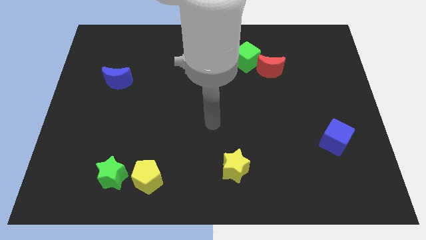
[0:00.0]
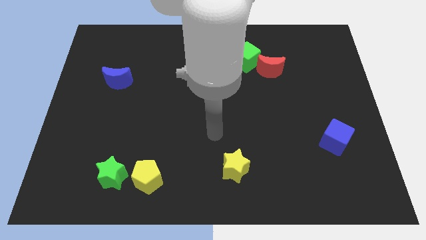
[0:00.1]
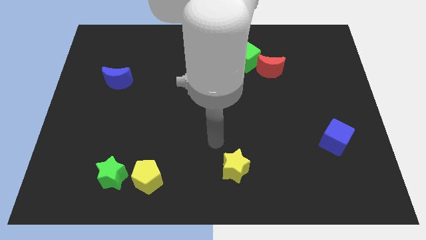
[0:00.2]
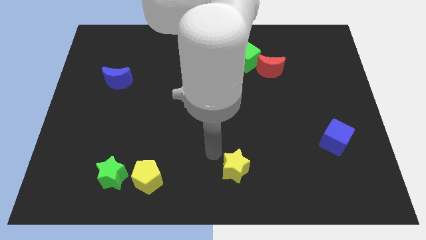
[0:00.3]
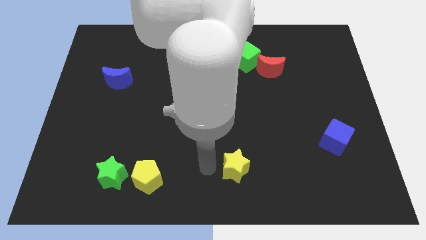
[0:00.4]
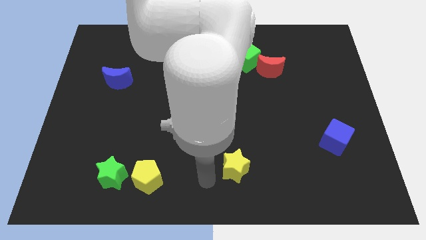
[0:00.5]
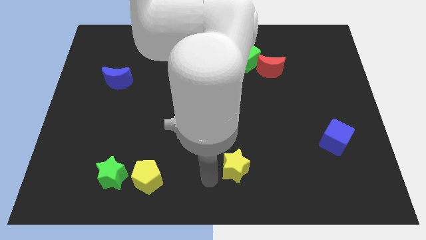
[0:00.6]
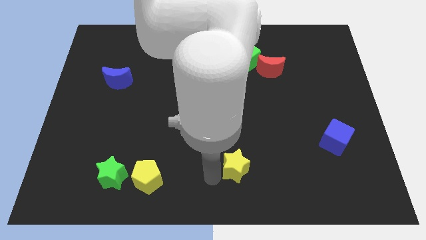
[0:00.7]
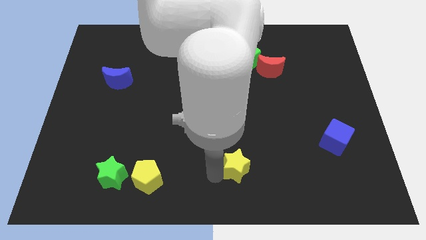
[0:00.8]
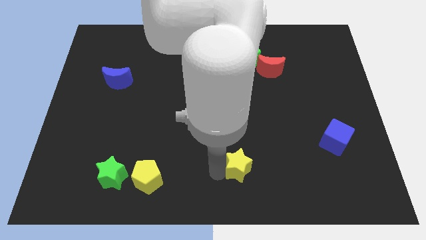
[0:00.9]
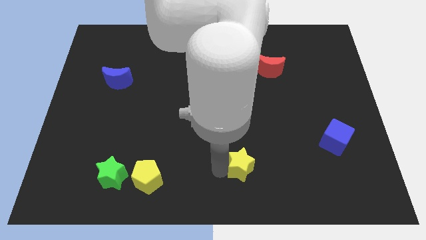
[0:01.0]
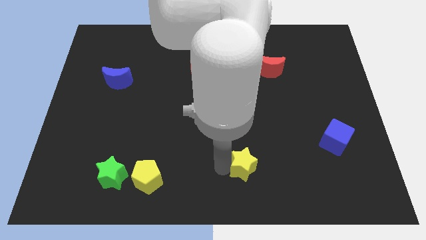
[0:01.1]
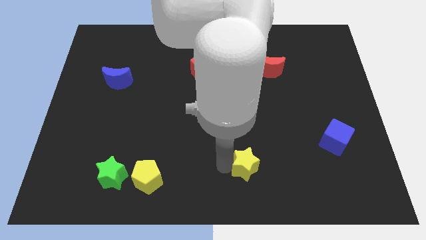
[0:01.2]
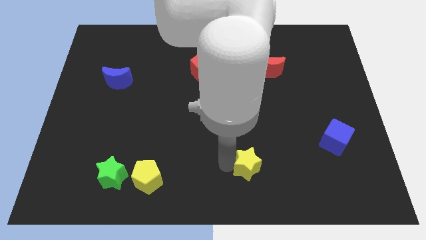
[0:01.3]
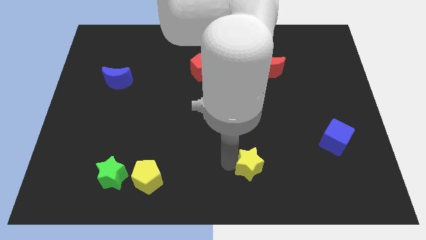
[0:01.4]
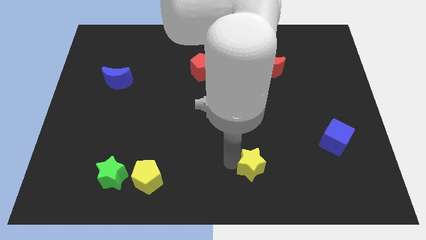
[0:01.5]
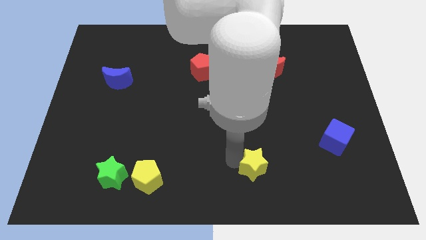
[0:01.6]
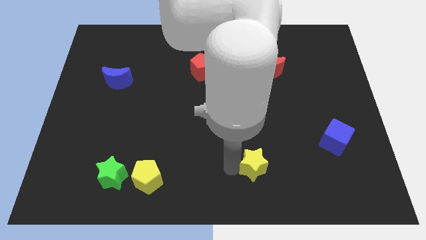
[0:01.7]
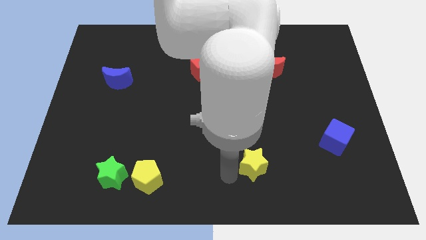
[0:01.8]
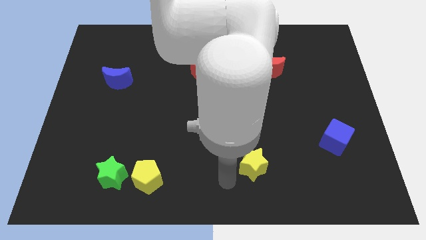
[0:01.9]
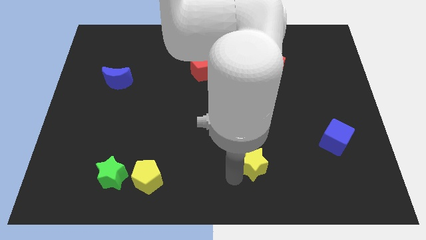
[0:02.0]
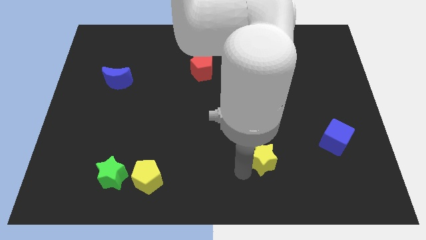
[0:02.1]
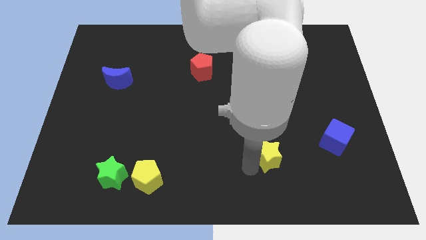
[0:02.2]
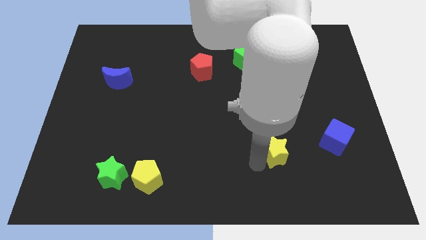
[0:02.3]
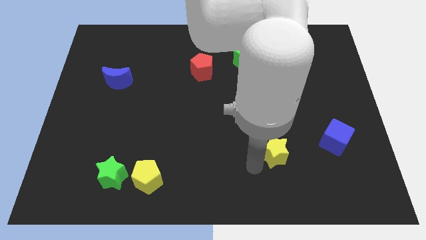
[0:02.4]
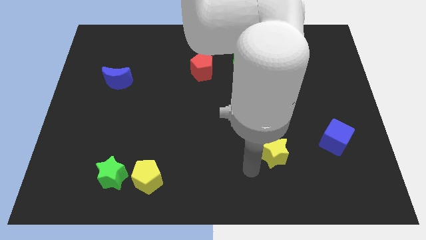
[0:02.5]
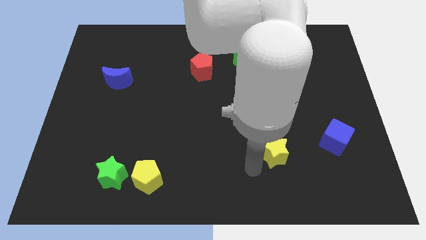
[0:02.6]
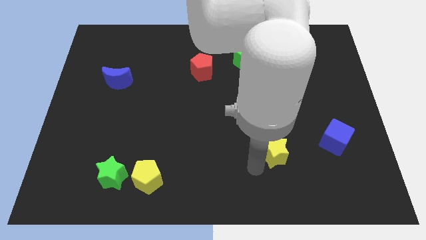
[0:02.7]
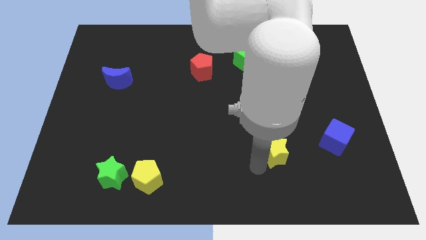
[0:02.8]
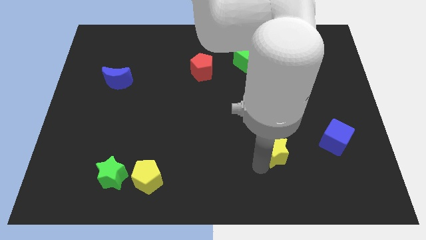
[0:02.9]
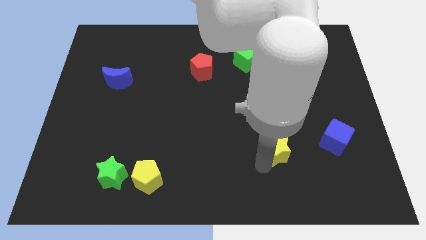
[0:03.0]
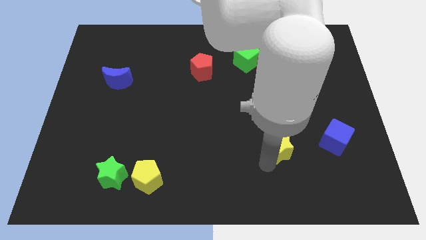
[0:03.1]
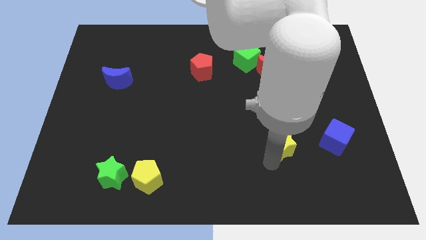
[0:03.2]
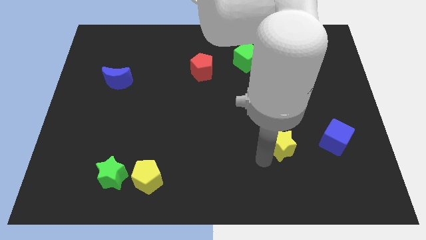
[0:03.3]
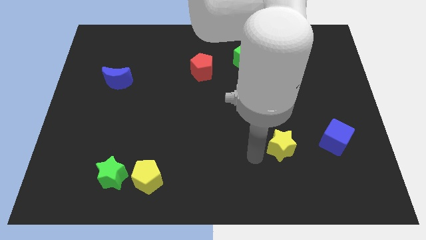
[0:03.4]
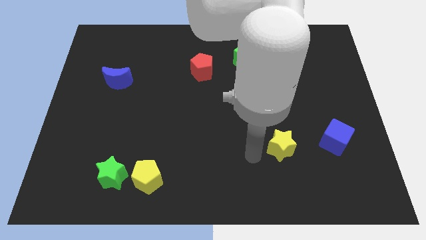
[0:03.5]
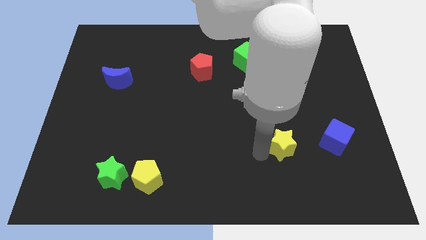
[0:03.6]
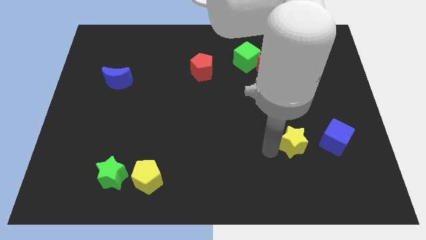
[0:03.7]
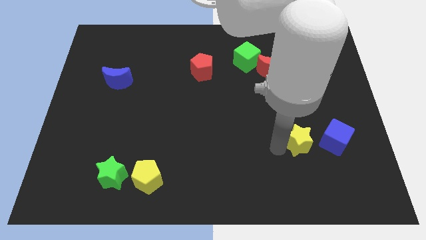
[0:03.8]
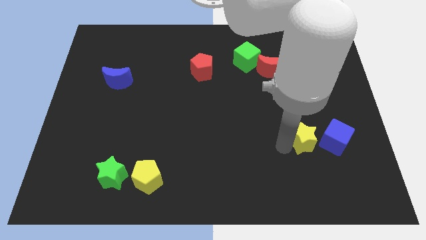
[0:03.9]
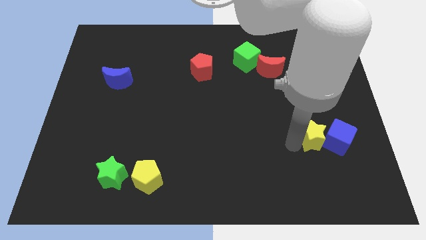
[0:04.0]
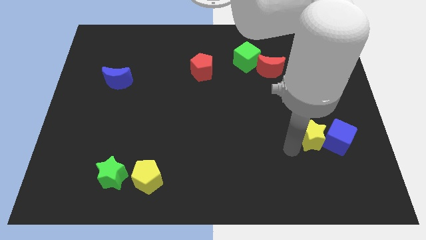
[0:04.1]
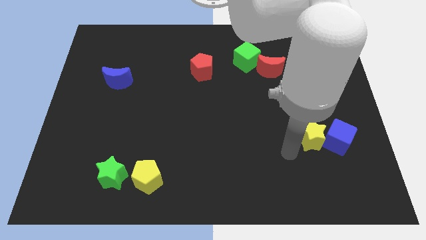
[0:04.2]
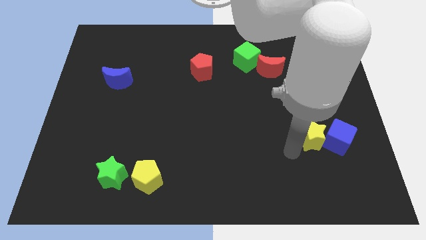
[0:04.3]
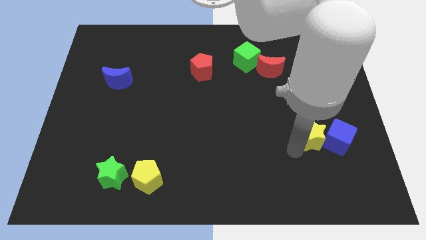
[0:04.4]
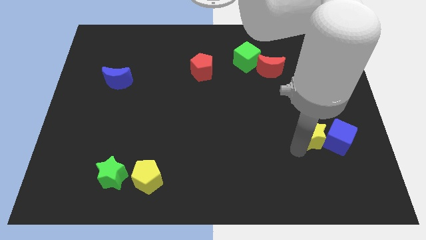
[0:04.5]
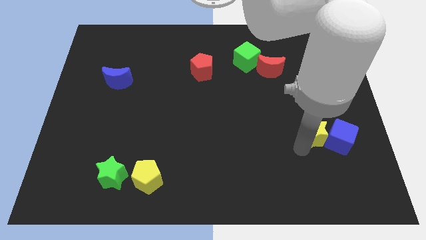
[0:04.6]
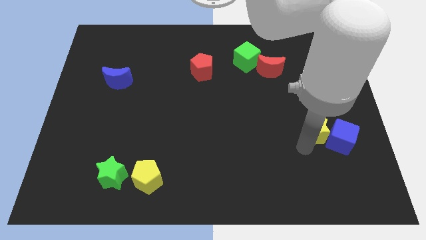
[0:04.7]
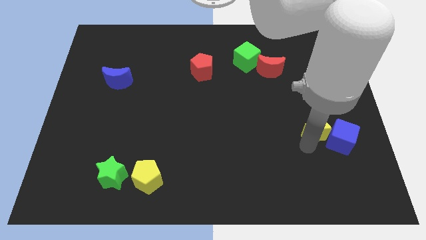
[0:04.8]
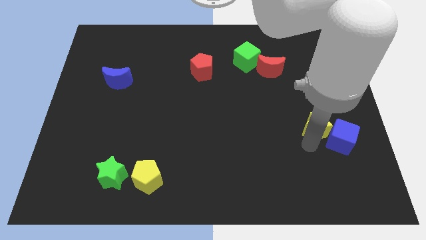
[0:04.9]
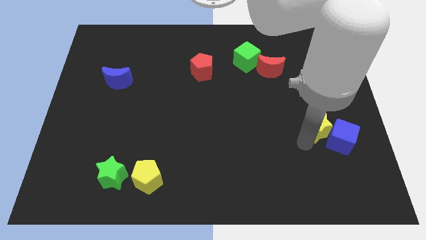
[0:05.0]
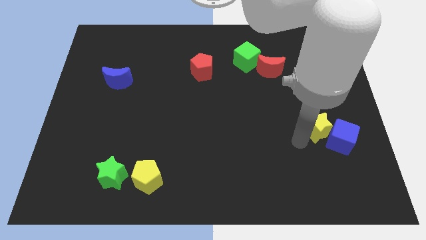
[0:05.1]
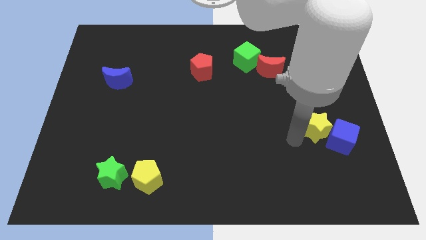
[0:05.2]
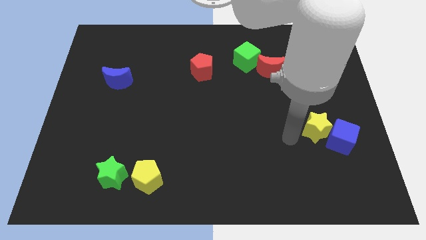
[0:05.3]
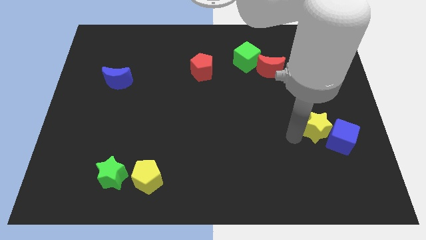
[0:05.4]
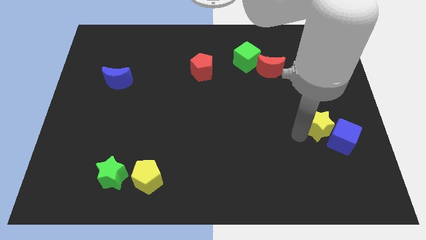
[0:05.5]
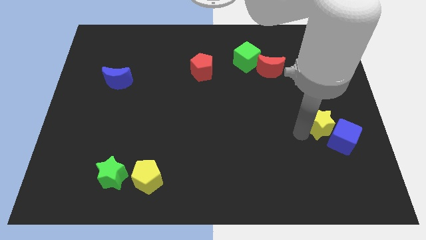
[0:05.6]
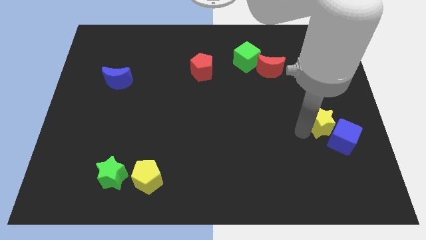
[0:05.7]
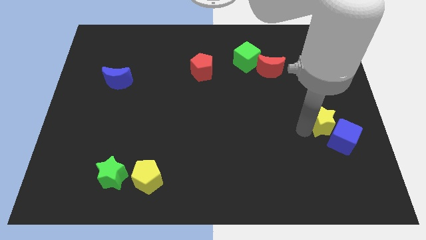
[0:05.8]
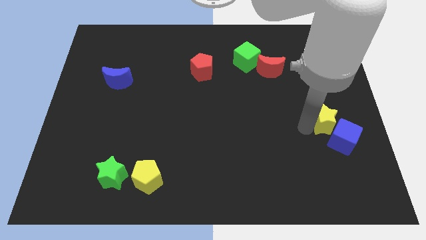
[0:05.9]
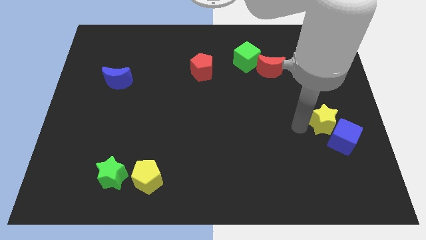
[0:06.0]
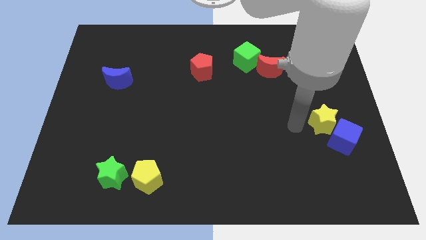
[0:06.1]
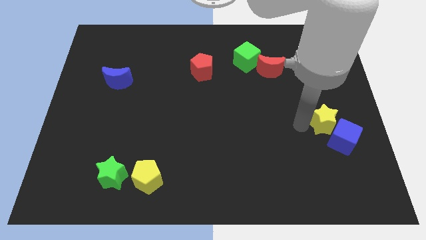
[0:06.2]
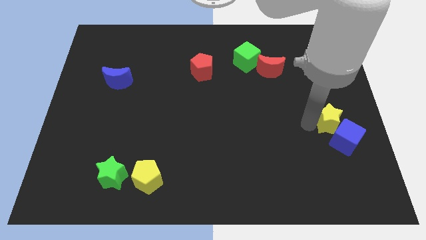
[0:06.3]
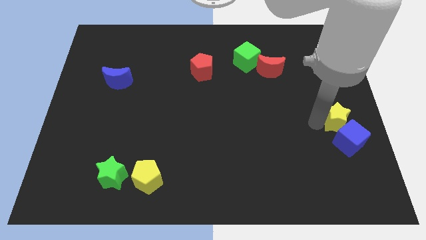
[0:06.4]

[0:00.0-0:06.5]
move the yellow star to the center right
